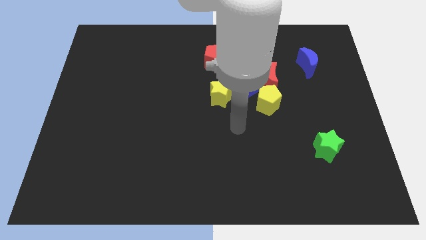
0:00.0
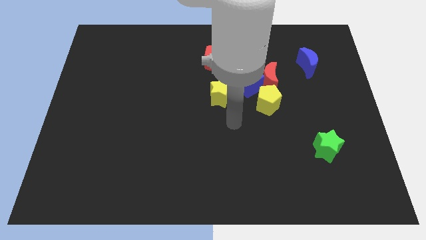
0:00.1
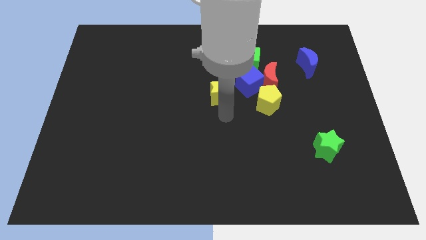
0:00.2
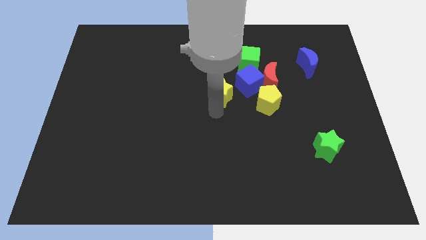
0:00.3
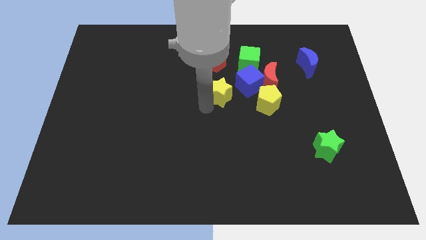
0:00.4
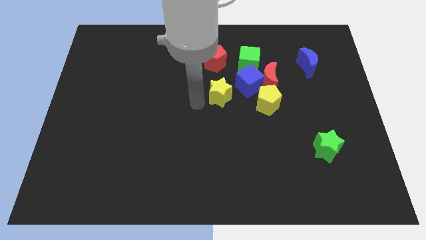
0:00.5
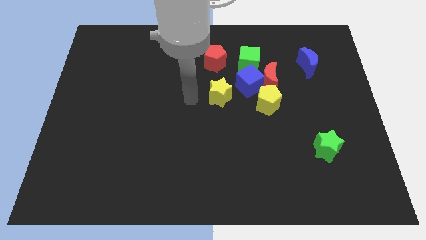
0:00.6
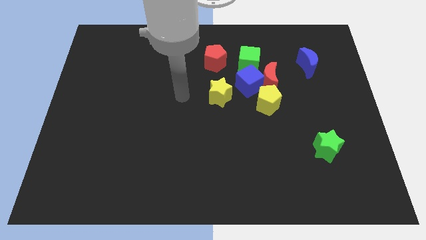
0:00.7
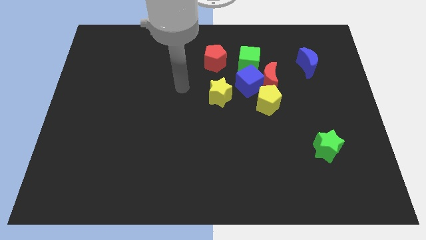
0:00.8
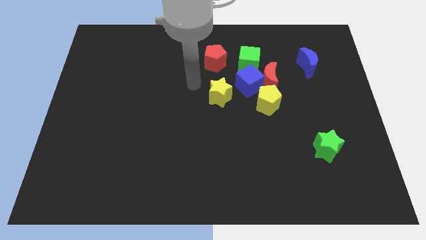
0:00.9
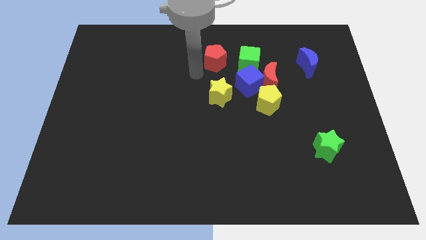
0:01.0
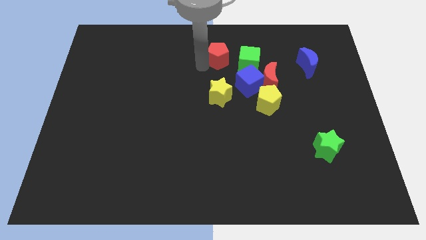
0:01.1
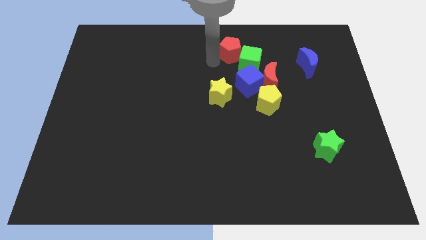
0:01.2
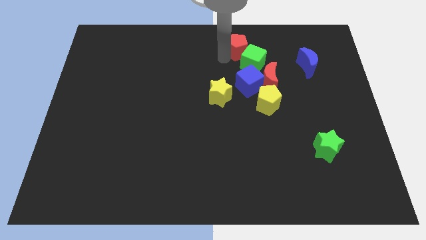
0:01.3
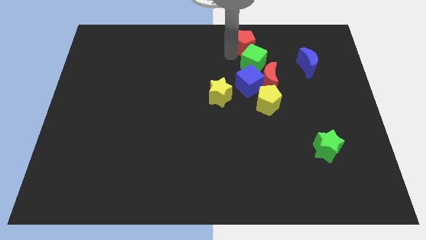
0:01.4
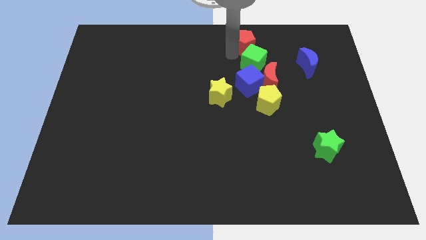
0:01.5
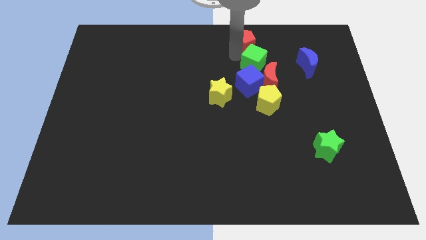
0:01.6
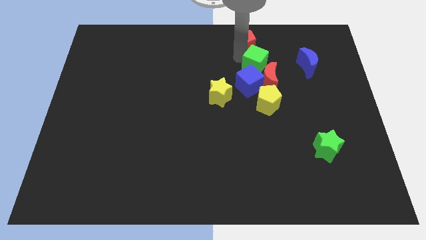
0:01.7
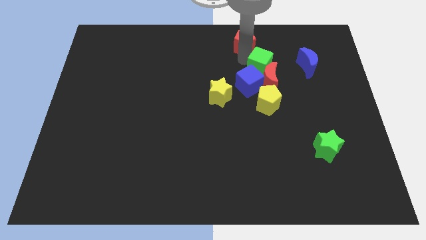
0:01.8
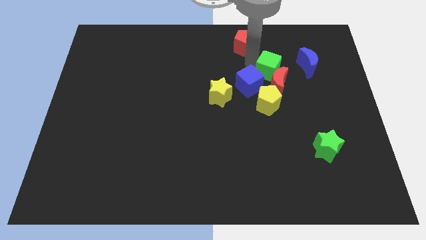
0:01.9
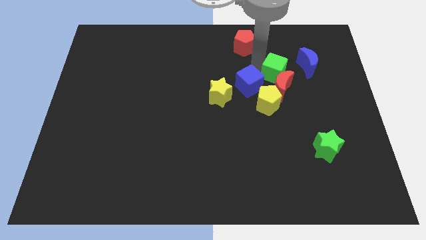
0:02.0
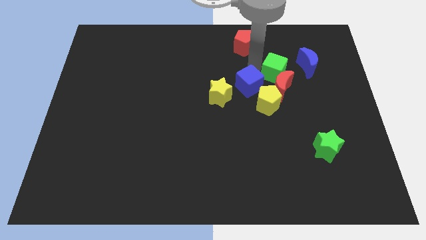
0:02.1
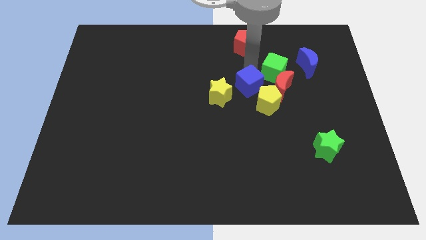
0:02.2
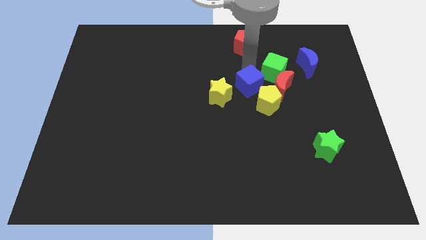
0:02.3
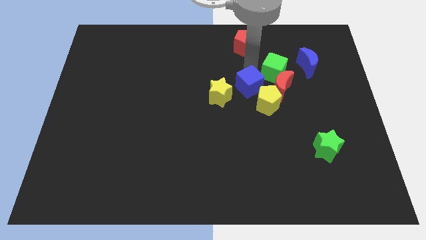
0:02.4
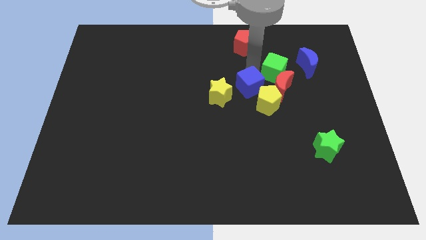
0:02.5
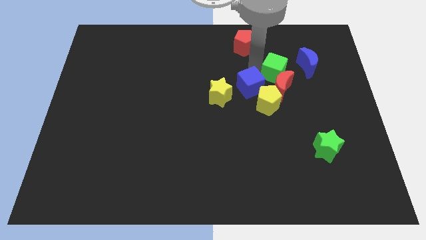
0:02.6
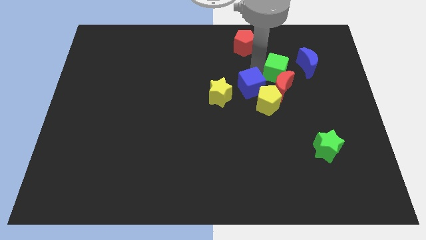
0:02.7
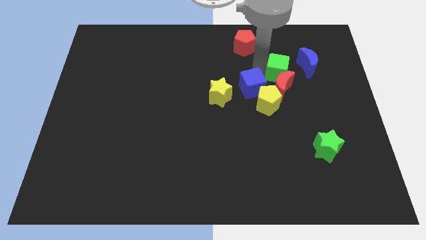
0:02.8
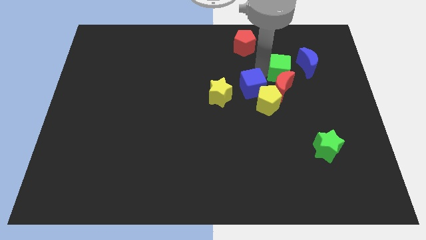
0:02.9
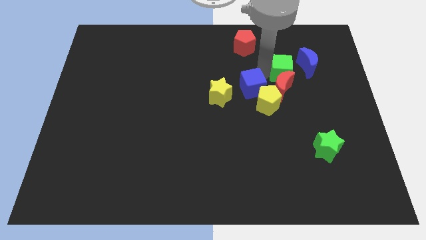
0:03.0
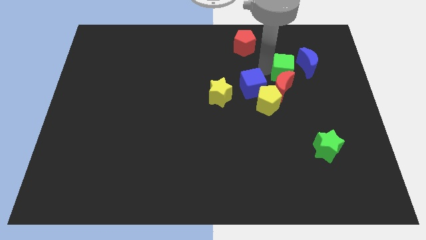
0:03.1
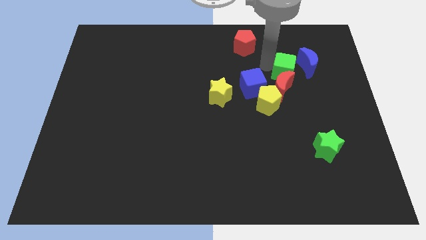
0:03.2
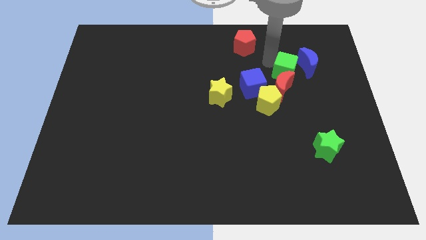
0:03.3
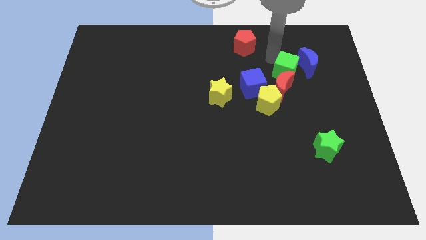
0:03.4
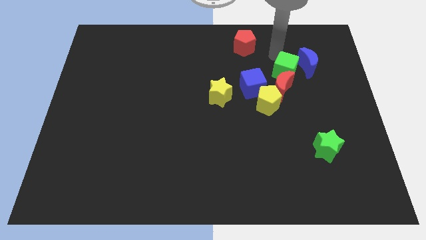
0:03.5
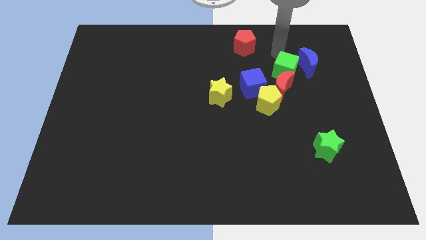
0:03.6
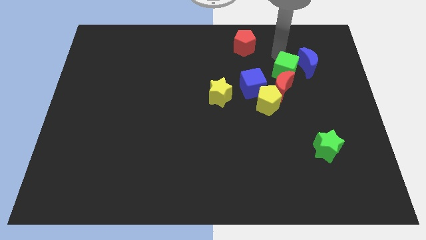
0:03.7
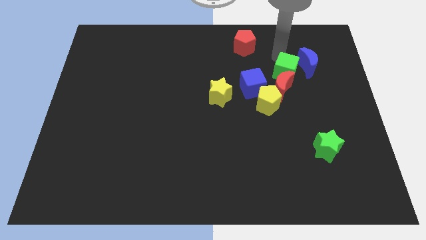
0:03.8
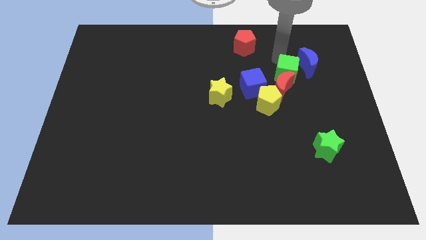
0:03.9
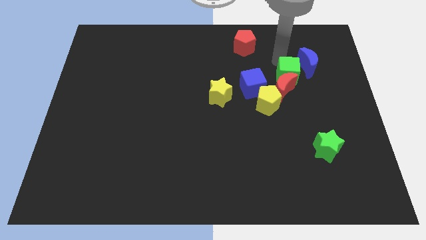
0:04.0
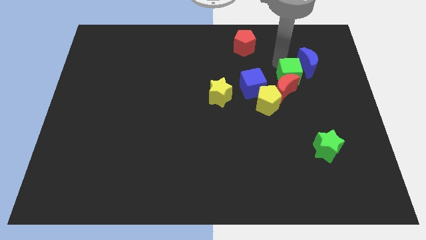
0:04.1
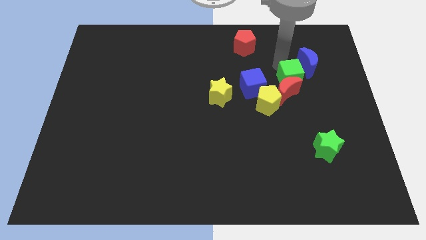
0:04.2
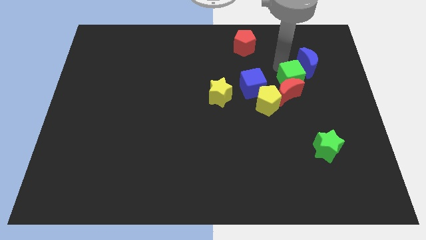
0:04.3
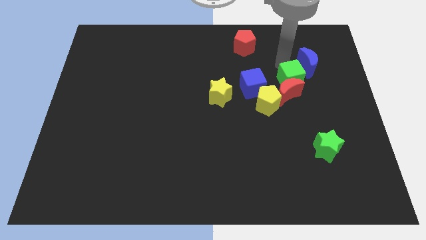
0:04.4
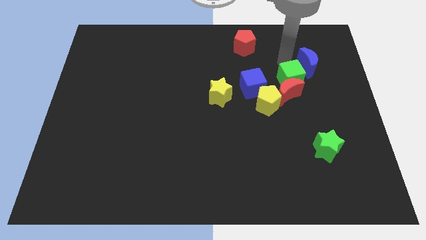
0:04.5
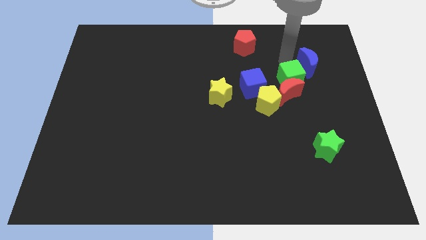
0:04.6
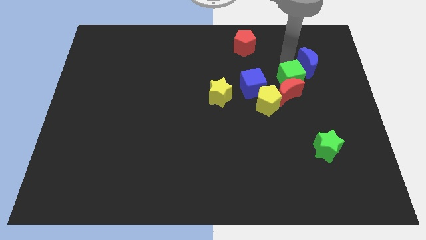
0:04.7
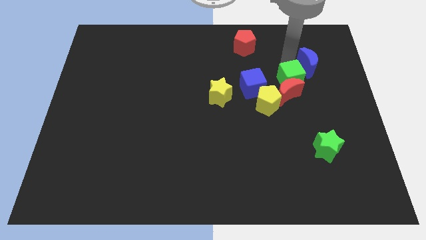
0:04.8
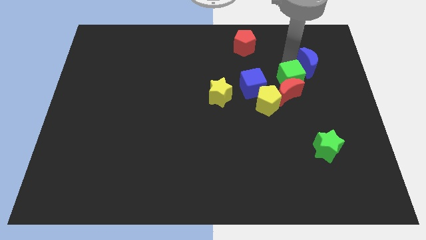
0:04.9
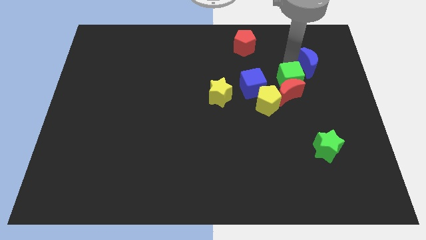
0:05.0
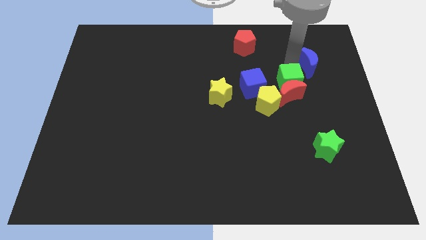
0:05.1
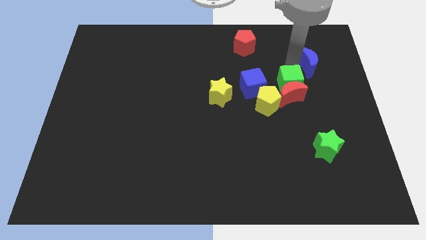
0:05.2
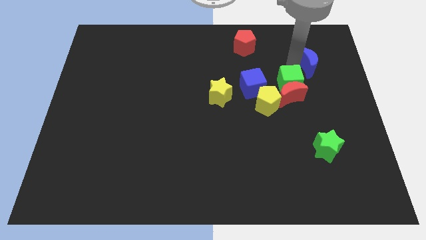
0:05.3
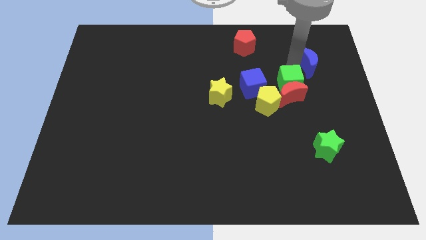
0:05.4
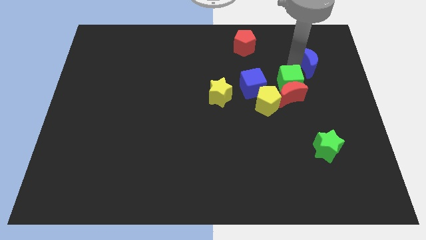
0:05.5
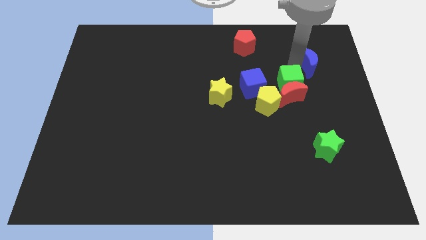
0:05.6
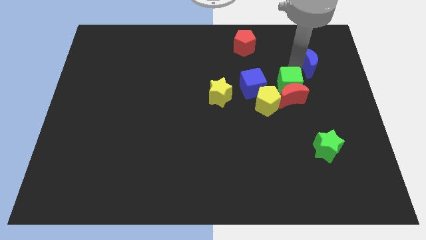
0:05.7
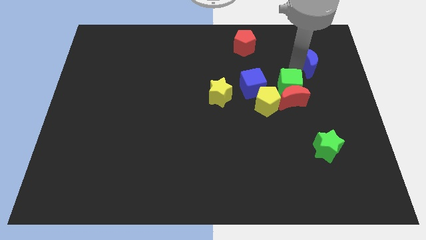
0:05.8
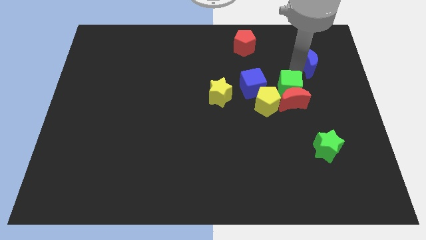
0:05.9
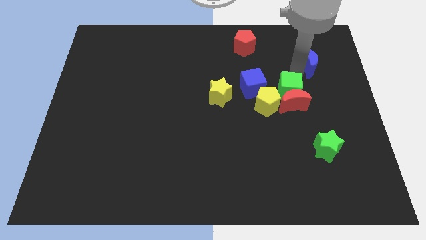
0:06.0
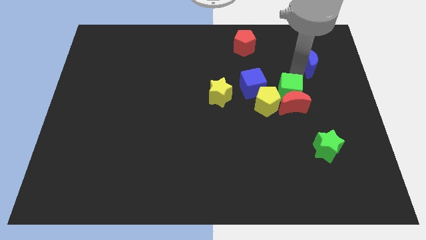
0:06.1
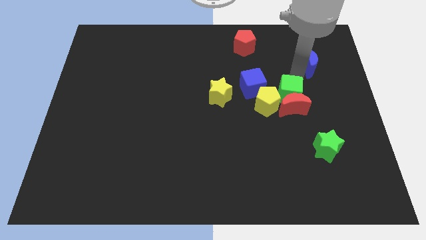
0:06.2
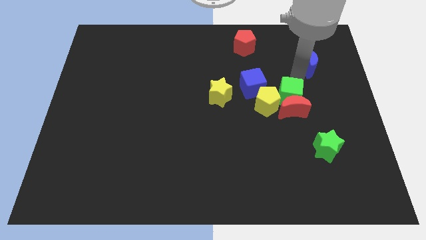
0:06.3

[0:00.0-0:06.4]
move the green cube down a little bit

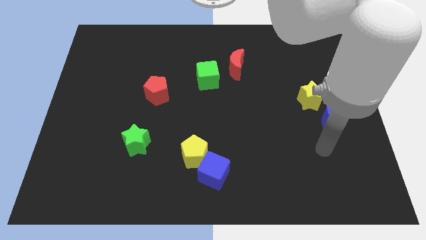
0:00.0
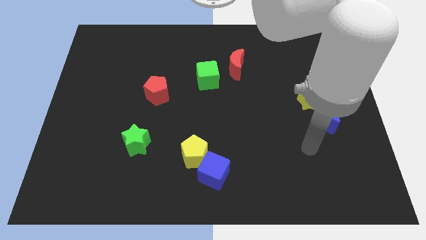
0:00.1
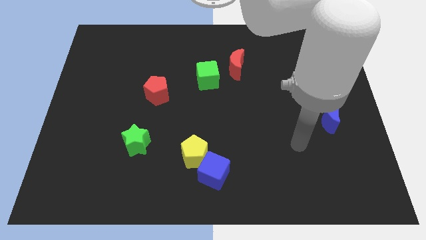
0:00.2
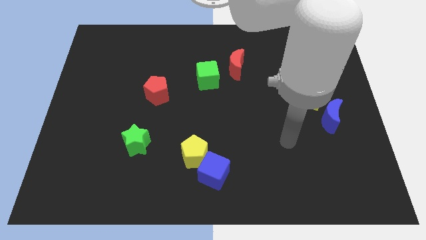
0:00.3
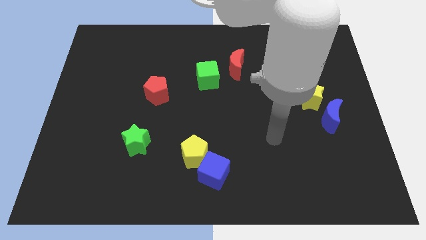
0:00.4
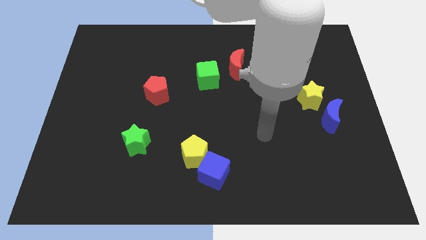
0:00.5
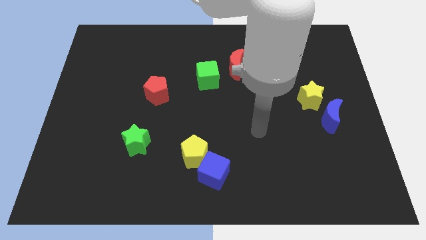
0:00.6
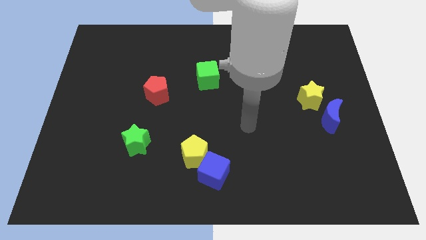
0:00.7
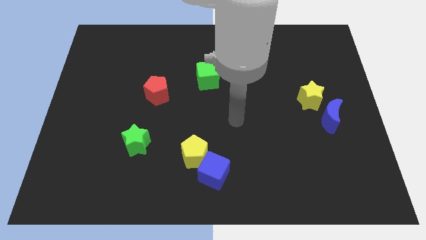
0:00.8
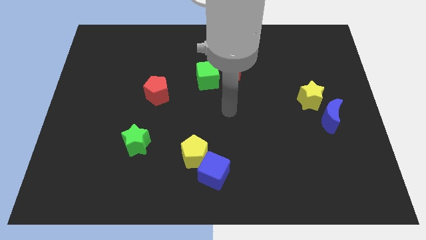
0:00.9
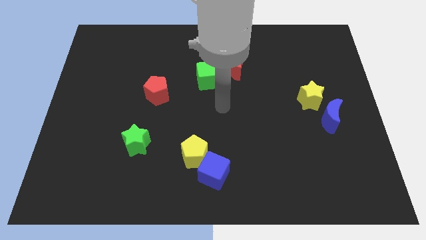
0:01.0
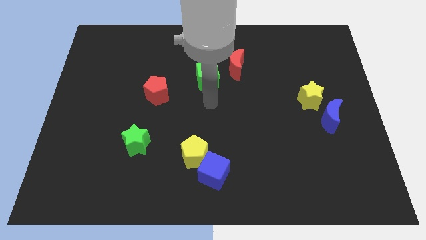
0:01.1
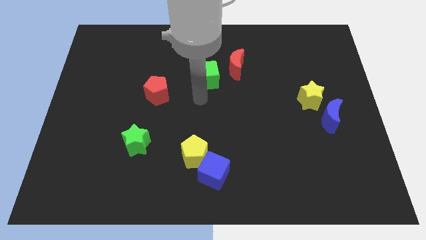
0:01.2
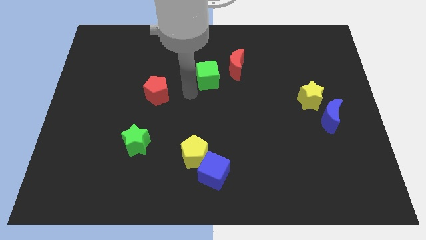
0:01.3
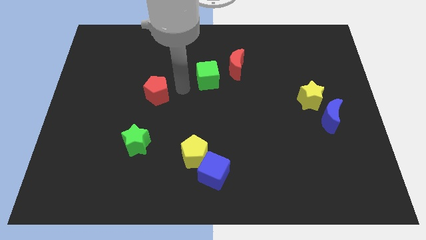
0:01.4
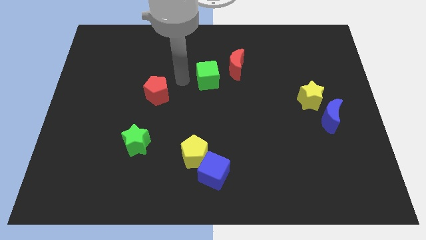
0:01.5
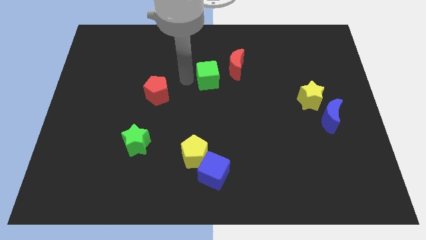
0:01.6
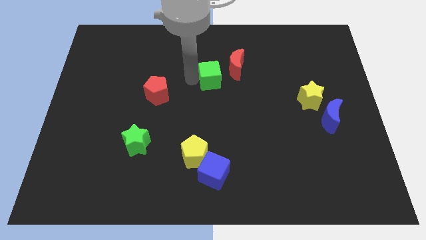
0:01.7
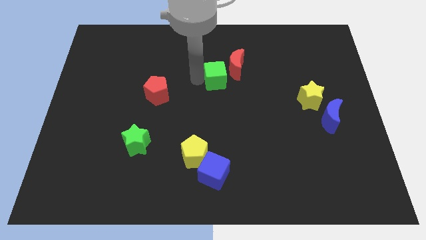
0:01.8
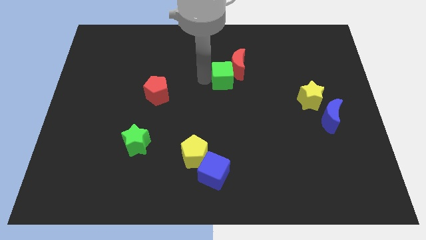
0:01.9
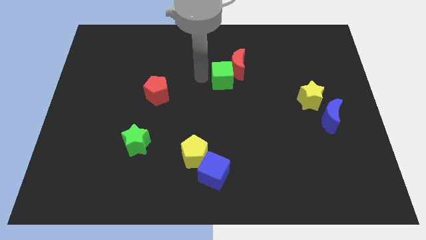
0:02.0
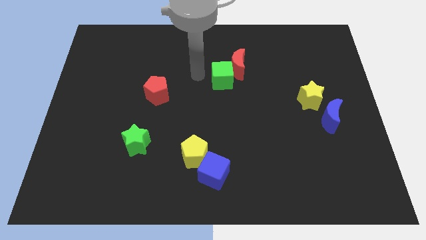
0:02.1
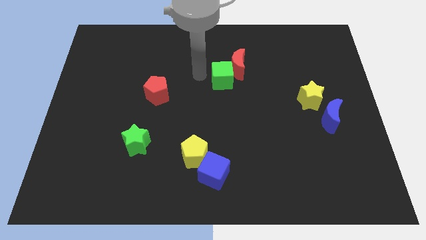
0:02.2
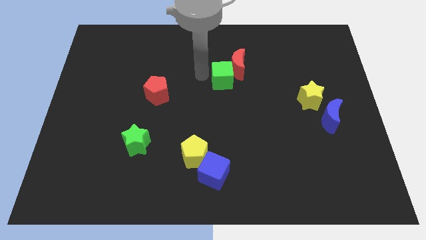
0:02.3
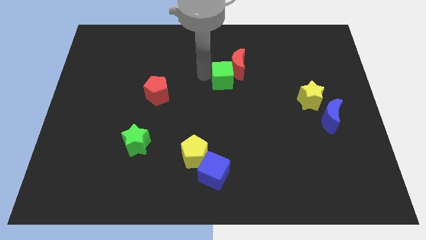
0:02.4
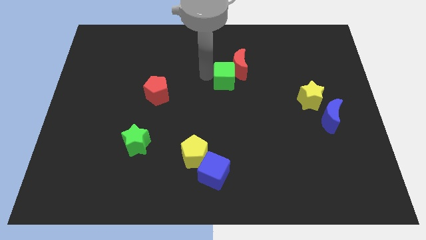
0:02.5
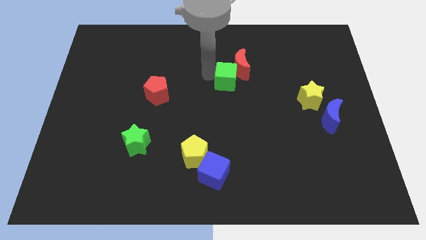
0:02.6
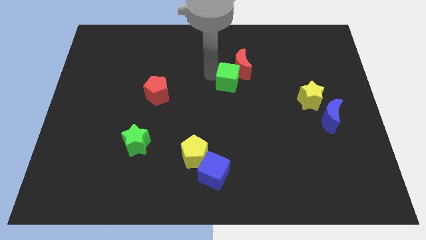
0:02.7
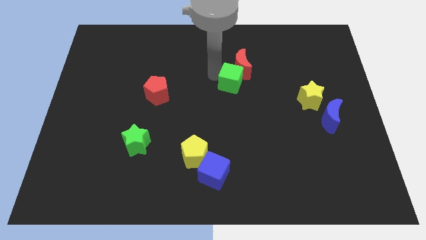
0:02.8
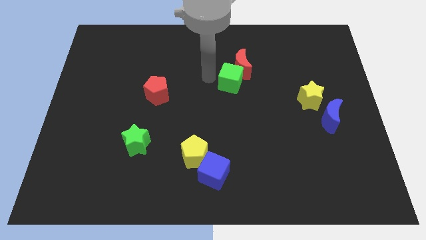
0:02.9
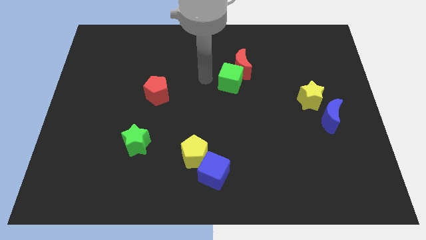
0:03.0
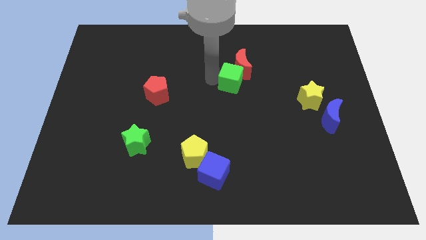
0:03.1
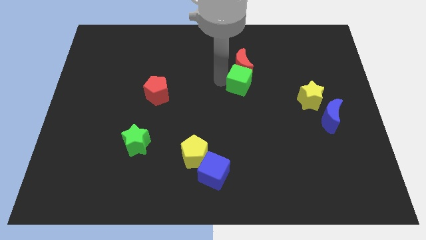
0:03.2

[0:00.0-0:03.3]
slightly slide the green cube to the right
